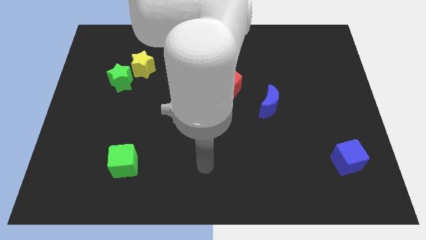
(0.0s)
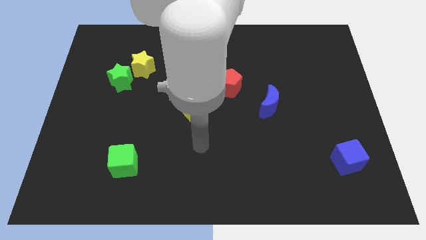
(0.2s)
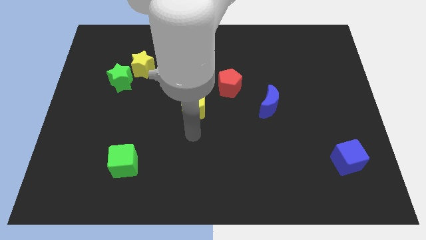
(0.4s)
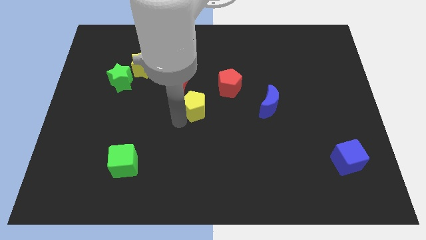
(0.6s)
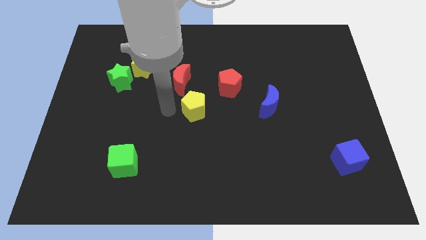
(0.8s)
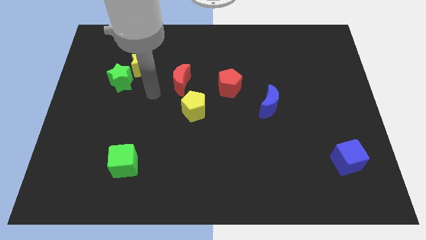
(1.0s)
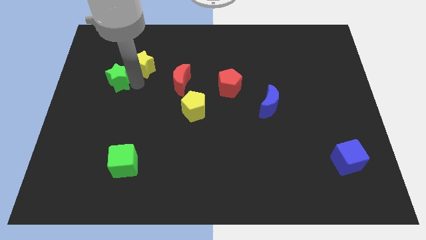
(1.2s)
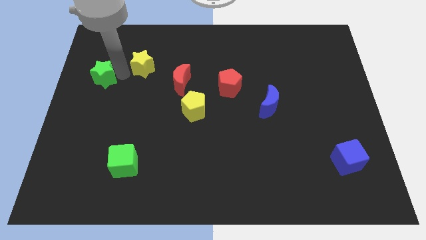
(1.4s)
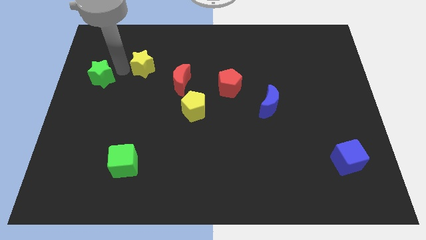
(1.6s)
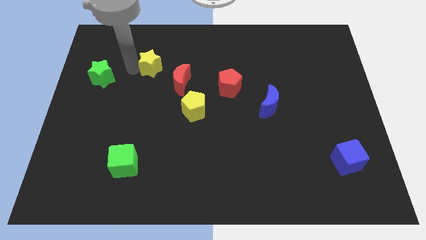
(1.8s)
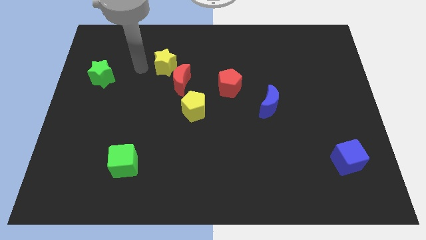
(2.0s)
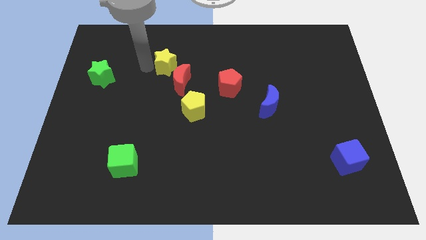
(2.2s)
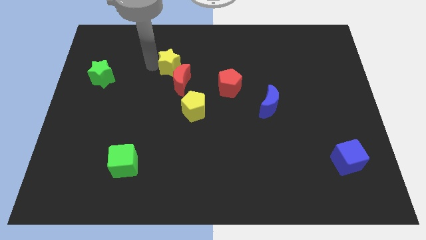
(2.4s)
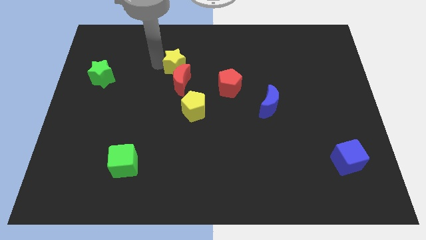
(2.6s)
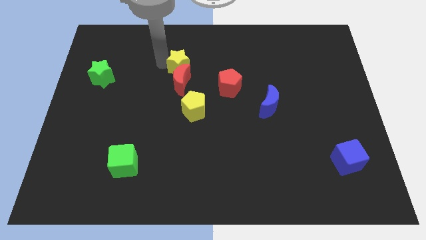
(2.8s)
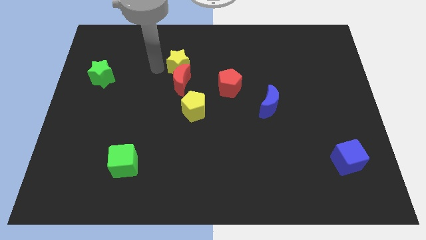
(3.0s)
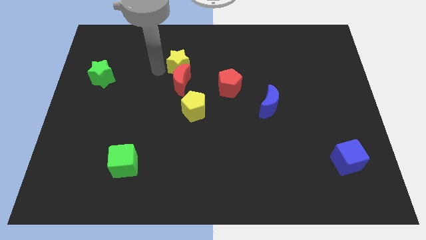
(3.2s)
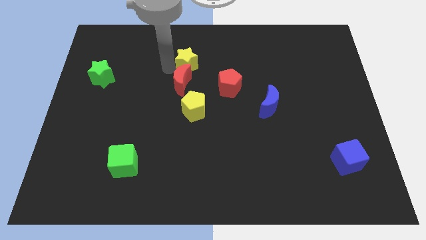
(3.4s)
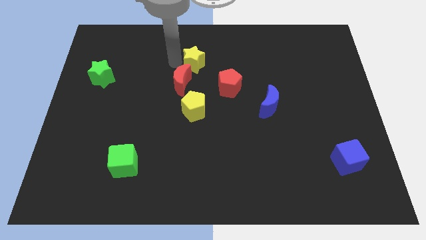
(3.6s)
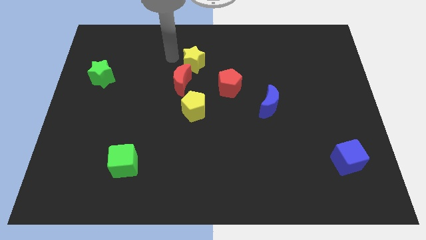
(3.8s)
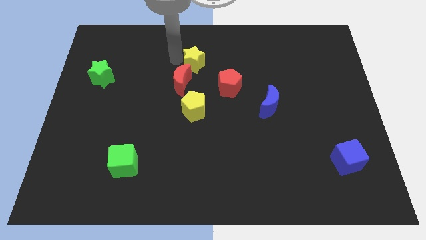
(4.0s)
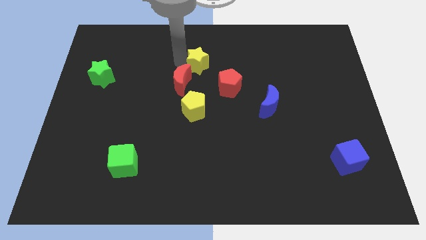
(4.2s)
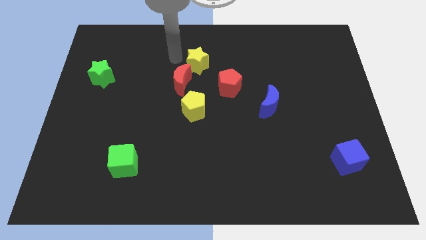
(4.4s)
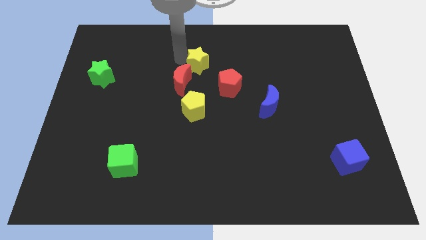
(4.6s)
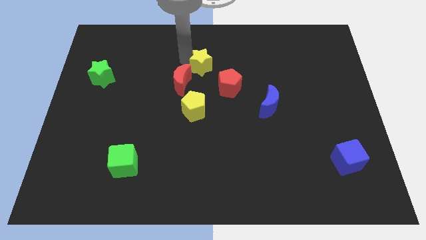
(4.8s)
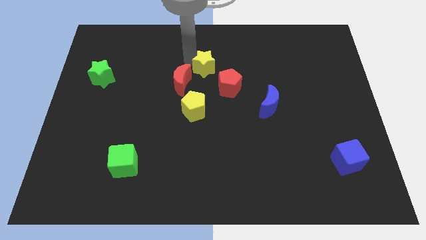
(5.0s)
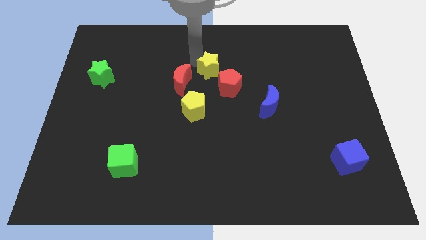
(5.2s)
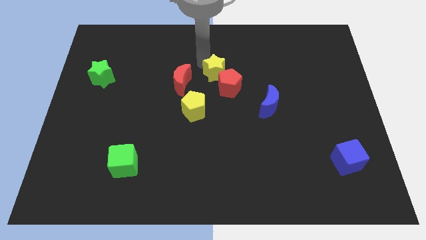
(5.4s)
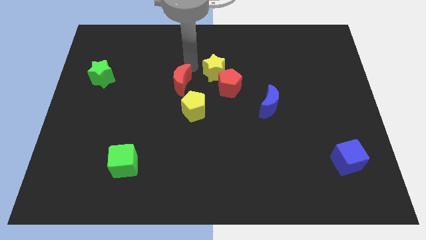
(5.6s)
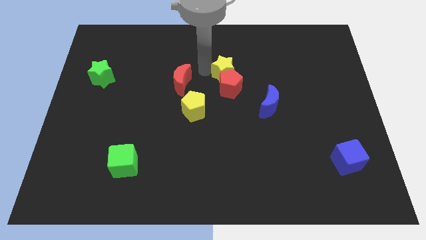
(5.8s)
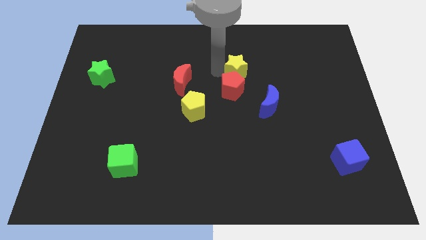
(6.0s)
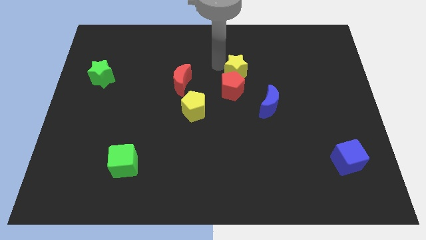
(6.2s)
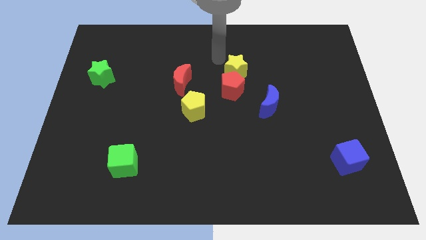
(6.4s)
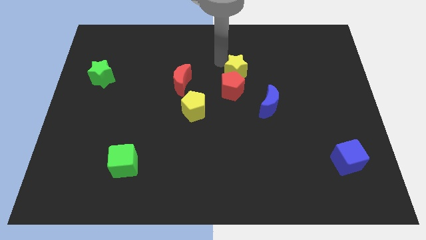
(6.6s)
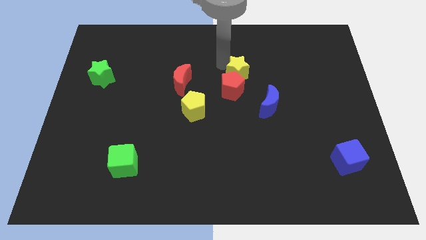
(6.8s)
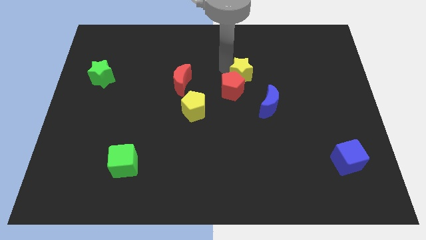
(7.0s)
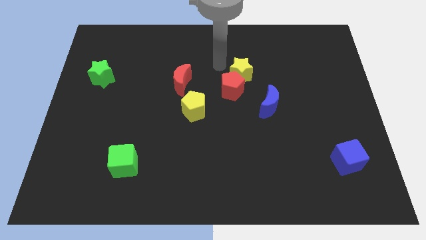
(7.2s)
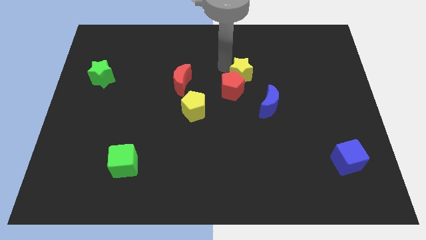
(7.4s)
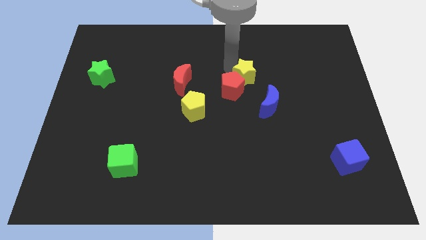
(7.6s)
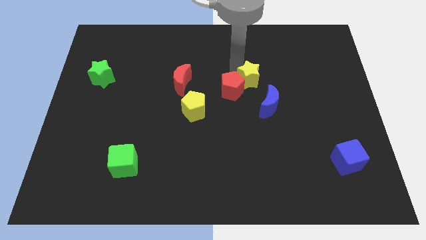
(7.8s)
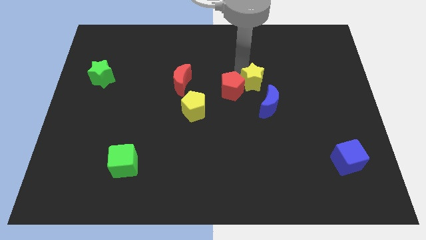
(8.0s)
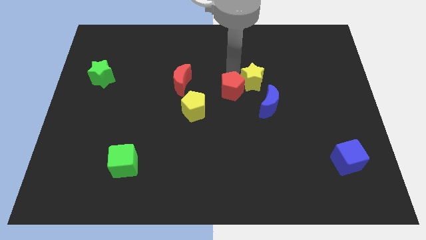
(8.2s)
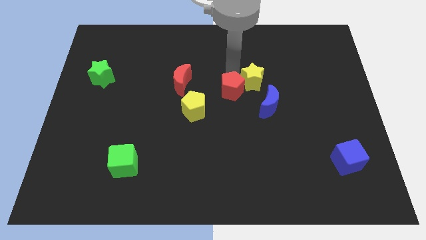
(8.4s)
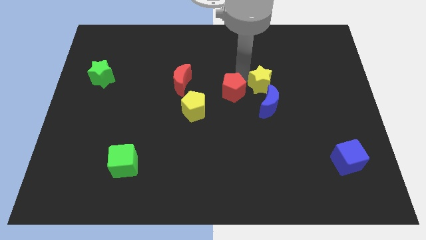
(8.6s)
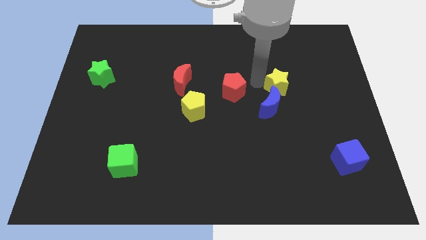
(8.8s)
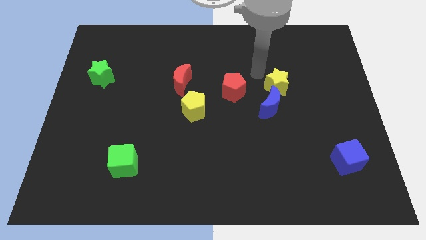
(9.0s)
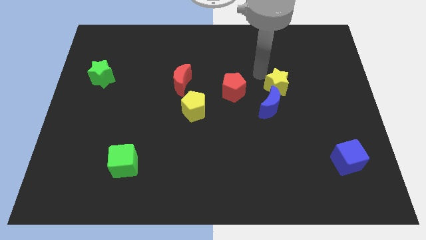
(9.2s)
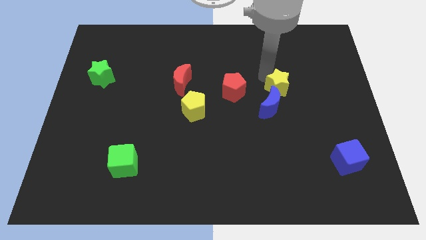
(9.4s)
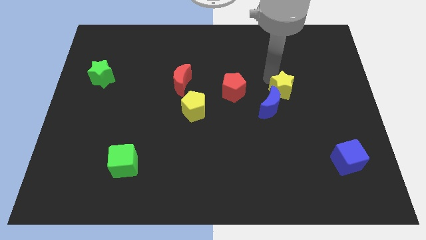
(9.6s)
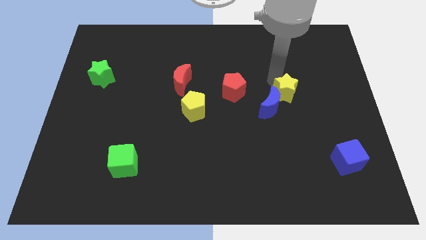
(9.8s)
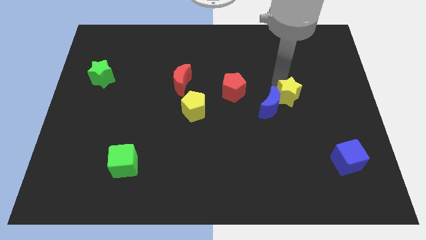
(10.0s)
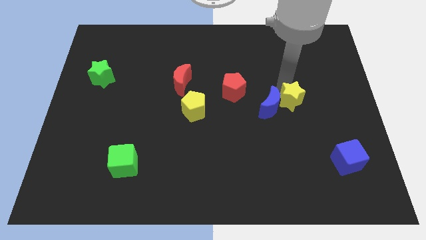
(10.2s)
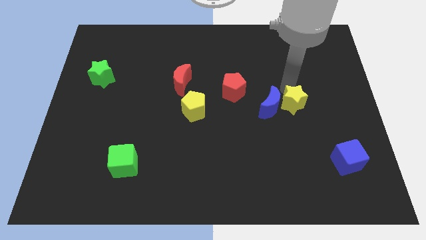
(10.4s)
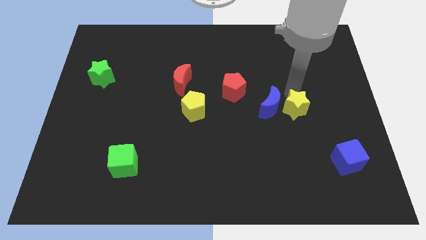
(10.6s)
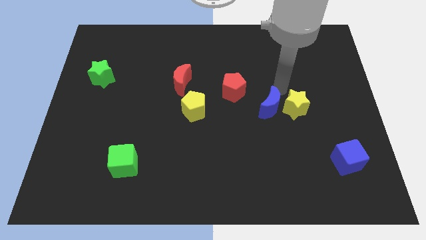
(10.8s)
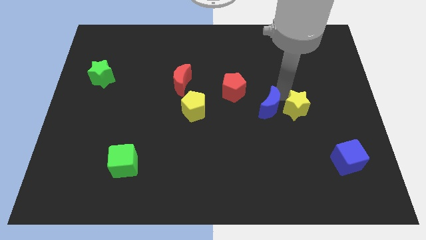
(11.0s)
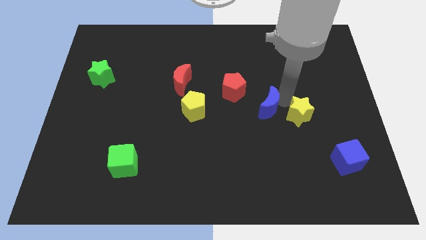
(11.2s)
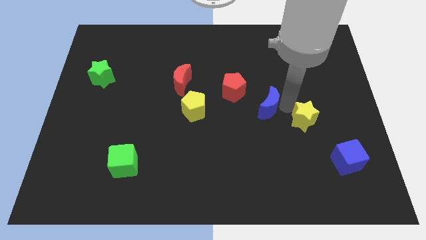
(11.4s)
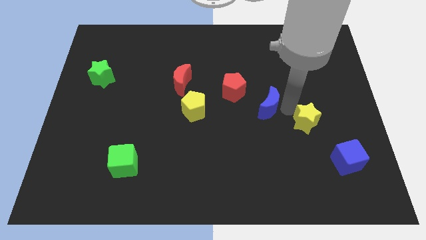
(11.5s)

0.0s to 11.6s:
slide the yellow star to the top left of the blue cube

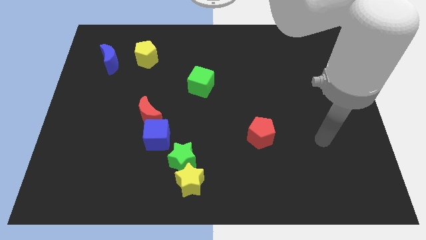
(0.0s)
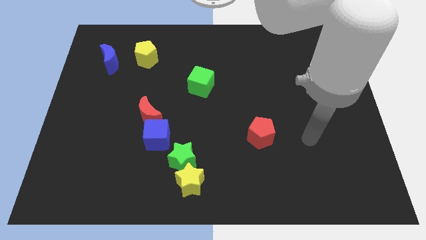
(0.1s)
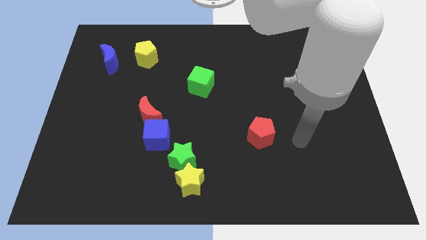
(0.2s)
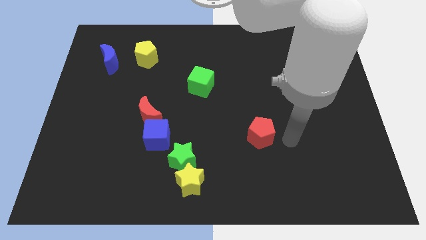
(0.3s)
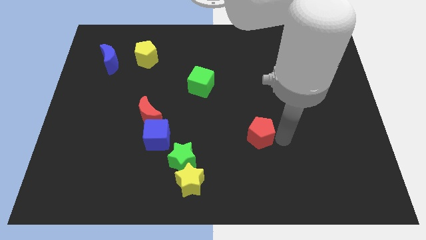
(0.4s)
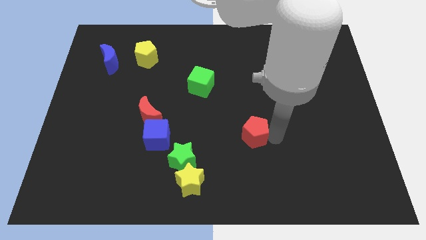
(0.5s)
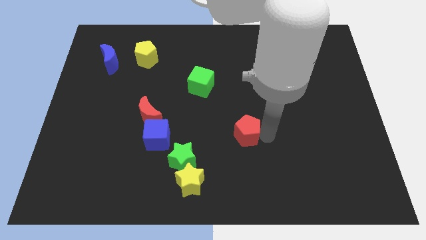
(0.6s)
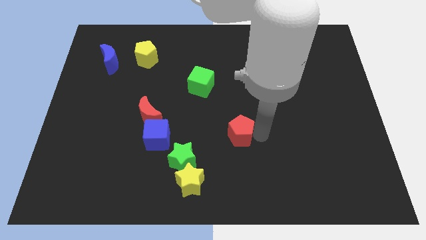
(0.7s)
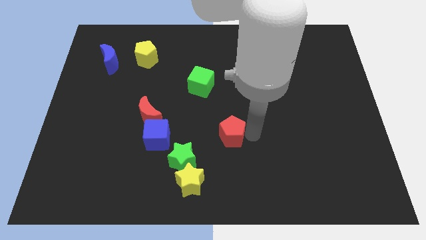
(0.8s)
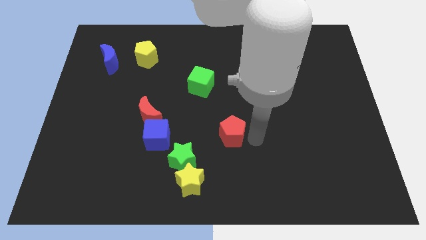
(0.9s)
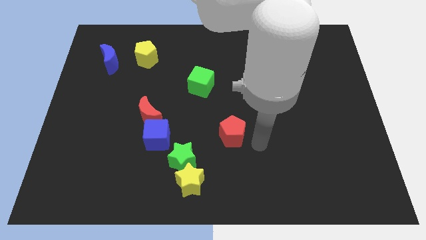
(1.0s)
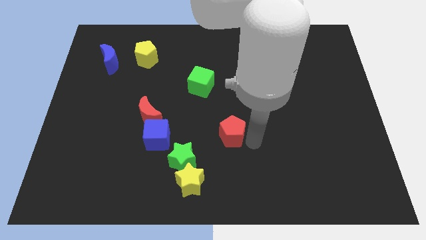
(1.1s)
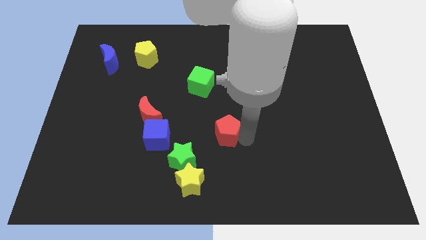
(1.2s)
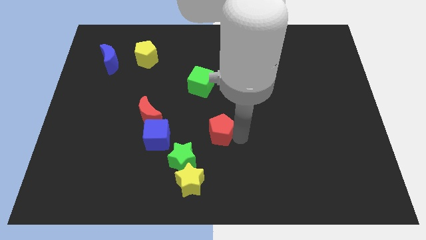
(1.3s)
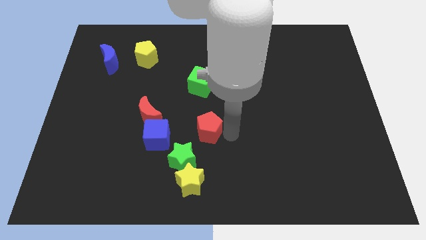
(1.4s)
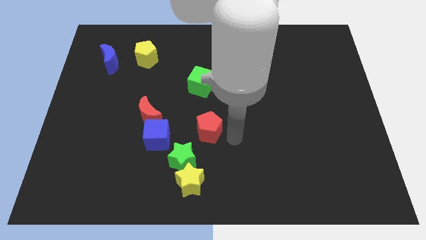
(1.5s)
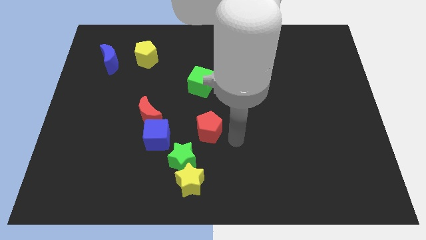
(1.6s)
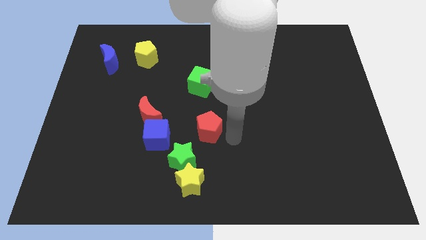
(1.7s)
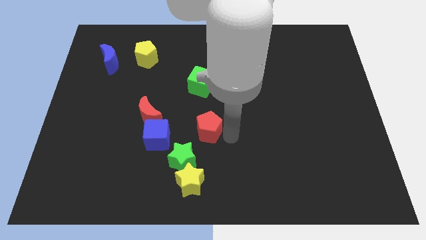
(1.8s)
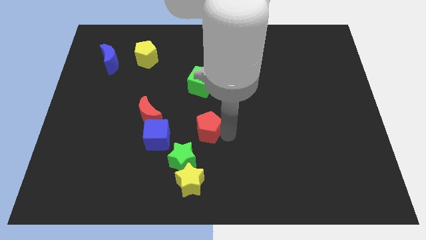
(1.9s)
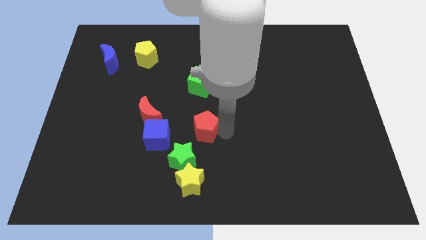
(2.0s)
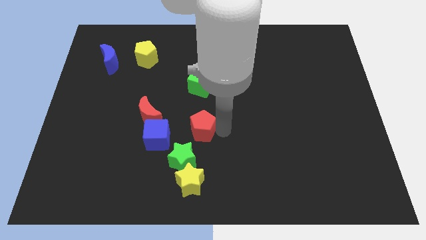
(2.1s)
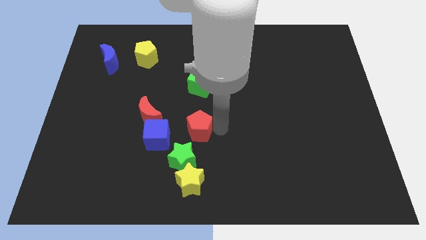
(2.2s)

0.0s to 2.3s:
push the red pentagon to the top right of the blue cube
